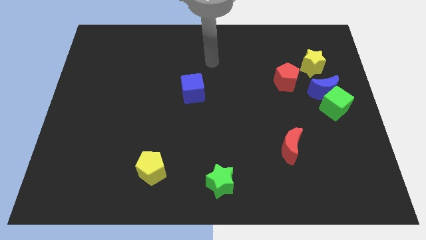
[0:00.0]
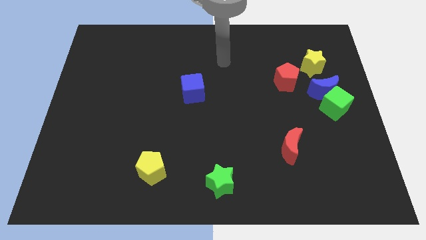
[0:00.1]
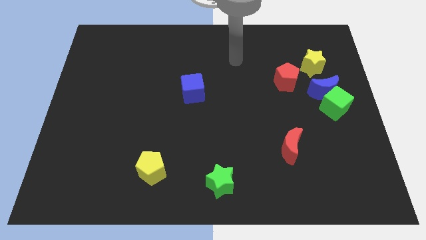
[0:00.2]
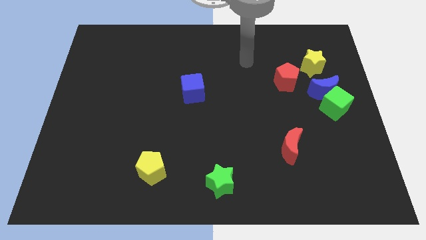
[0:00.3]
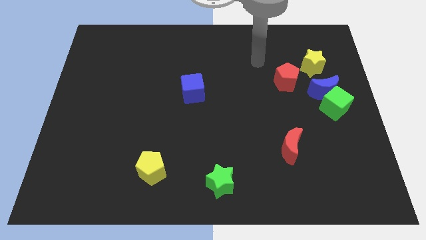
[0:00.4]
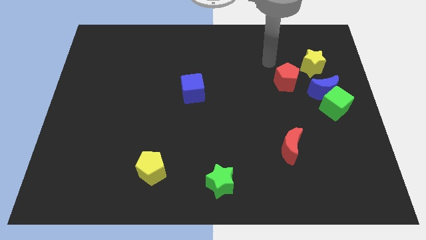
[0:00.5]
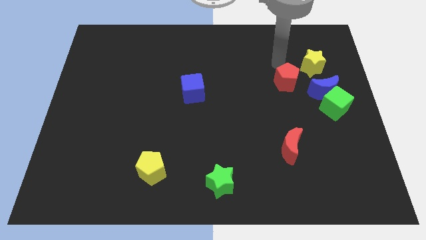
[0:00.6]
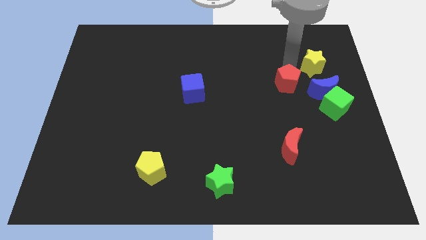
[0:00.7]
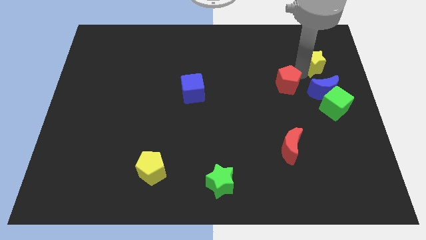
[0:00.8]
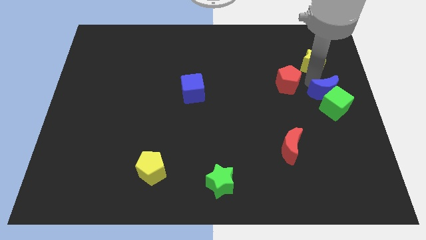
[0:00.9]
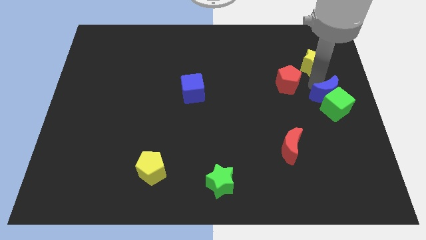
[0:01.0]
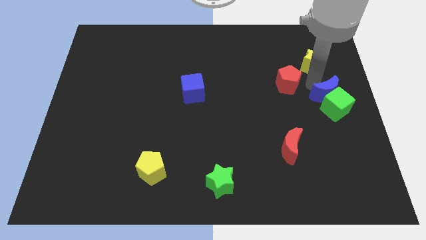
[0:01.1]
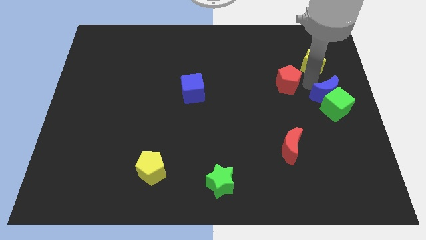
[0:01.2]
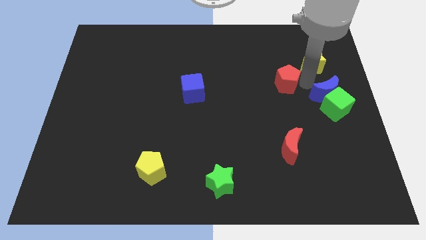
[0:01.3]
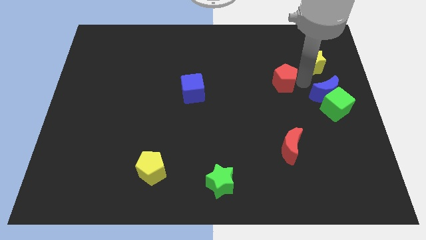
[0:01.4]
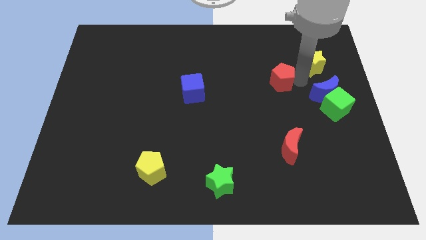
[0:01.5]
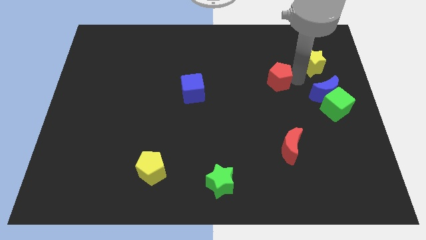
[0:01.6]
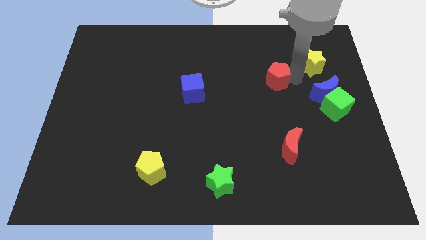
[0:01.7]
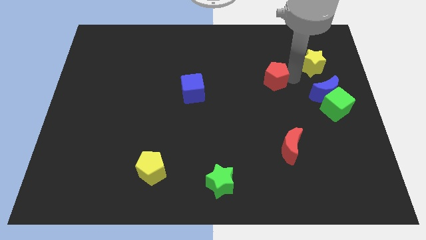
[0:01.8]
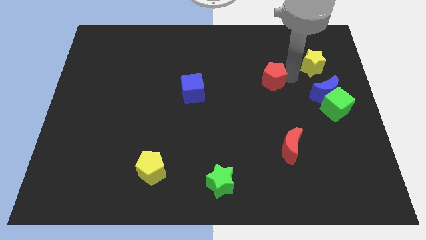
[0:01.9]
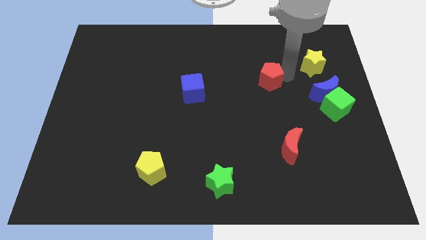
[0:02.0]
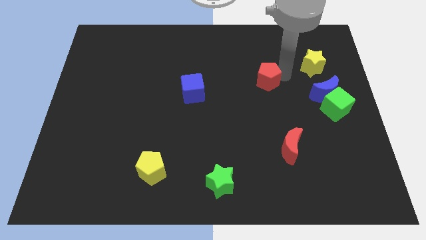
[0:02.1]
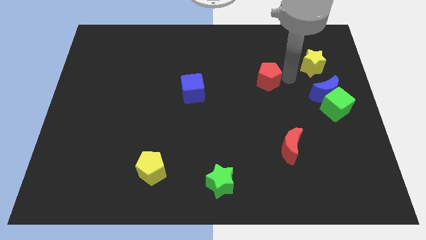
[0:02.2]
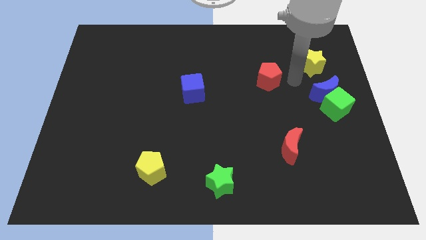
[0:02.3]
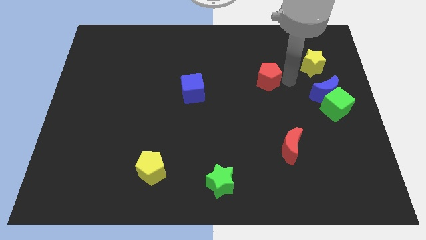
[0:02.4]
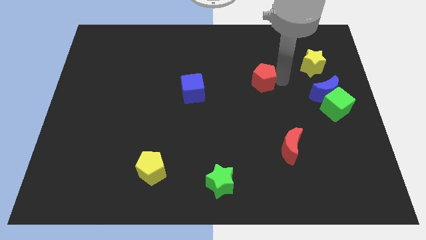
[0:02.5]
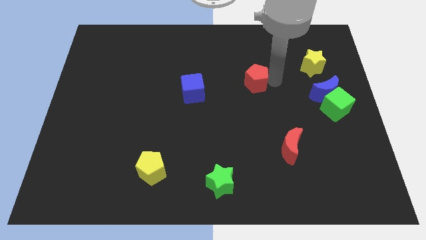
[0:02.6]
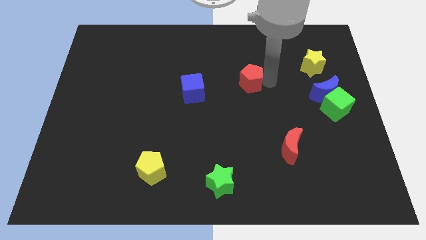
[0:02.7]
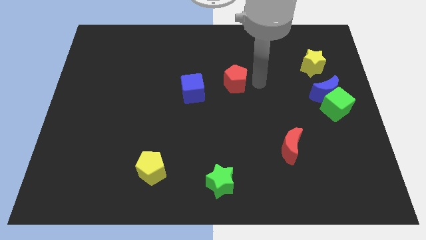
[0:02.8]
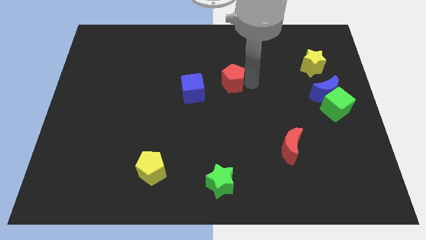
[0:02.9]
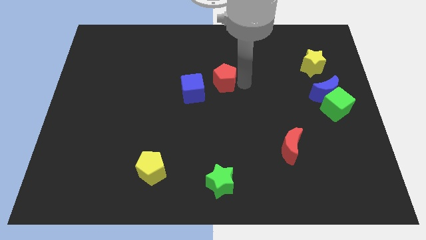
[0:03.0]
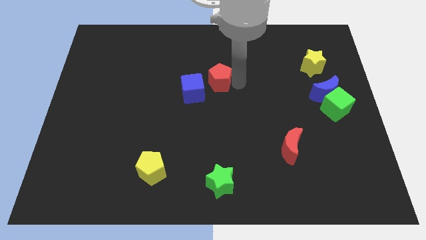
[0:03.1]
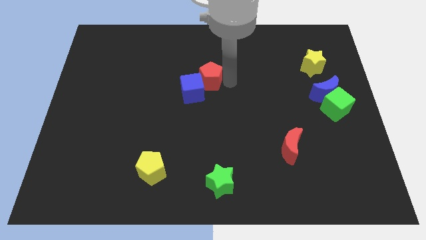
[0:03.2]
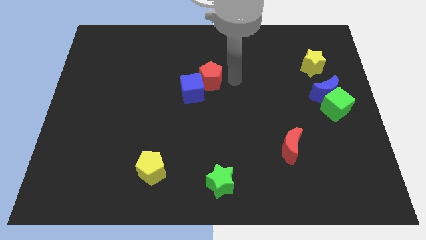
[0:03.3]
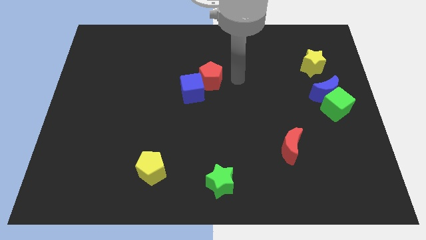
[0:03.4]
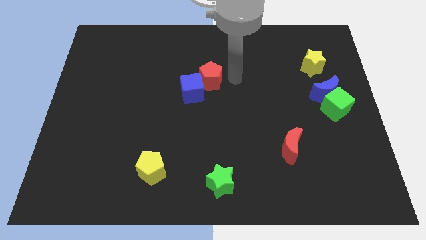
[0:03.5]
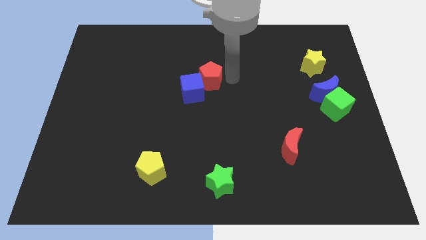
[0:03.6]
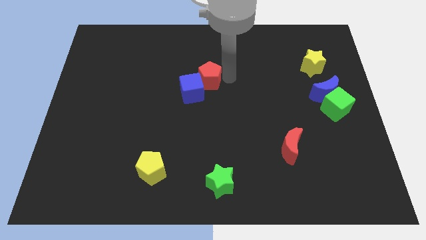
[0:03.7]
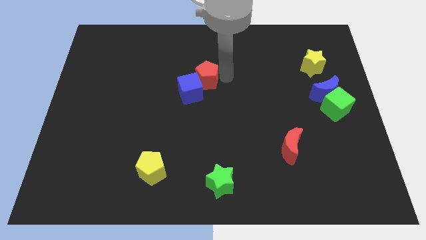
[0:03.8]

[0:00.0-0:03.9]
move the red pentagon left

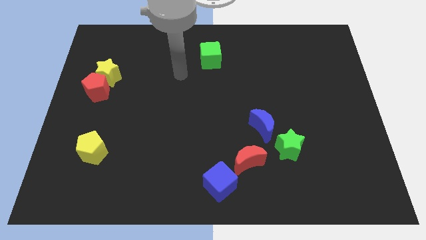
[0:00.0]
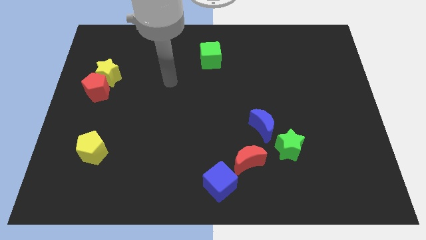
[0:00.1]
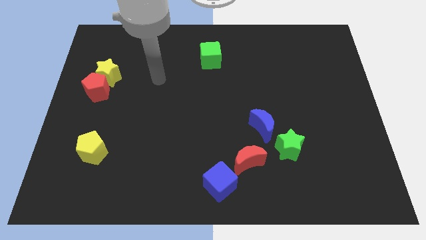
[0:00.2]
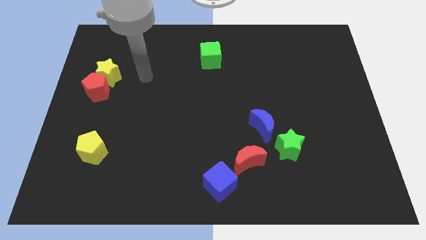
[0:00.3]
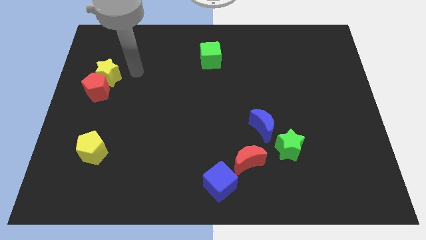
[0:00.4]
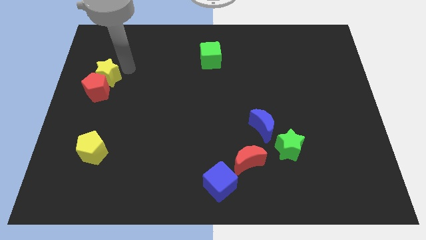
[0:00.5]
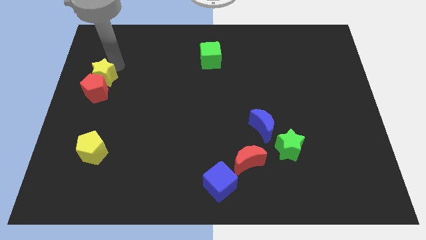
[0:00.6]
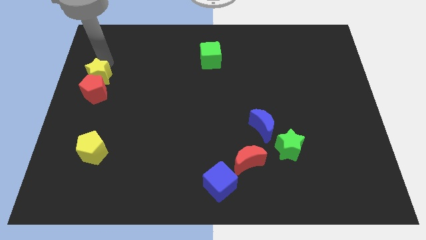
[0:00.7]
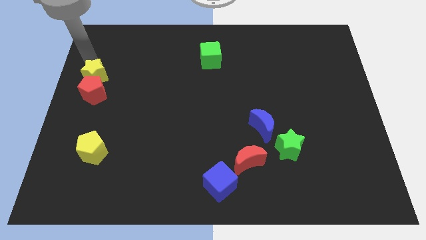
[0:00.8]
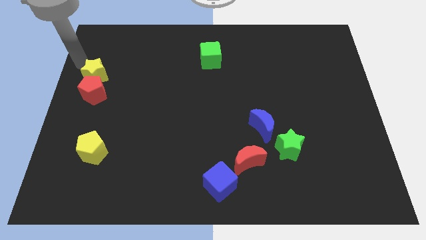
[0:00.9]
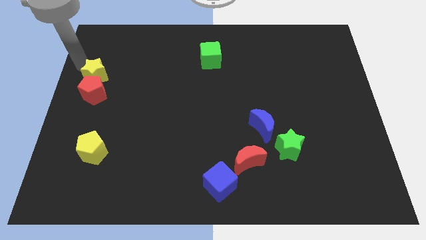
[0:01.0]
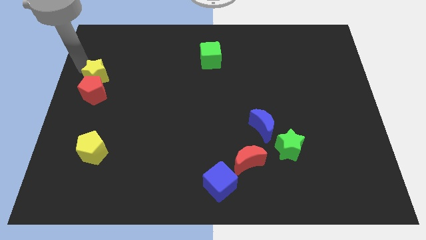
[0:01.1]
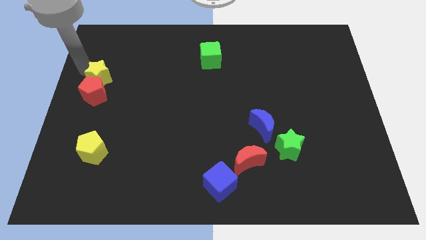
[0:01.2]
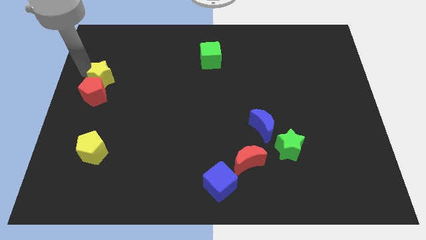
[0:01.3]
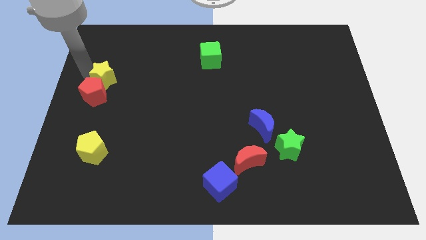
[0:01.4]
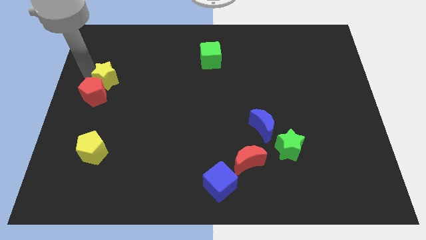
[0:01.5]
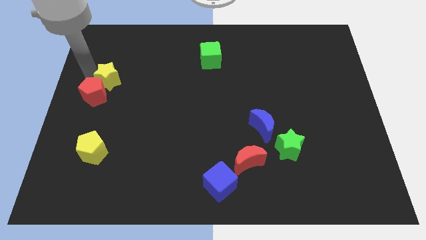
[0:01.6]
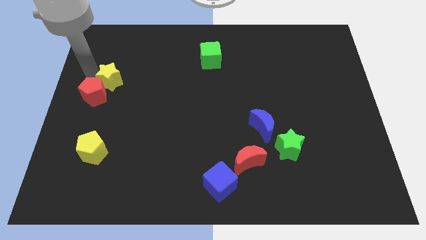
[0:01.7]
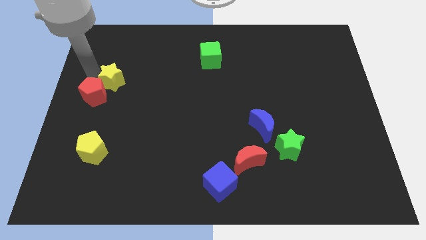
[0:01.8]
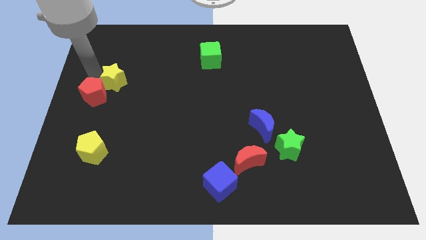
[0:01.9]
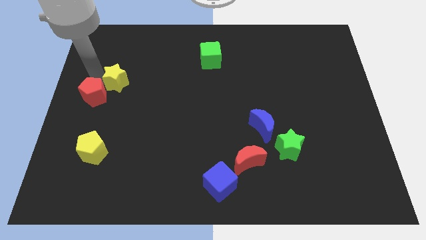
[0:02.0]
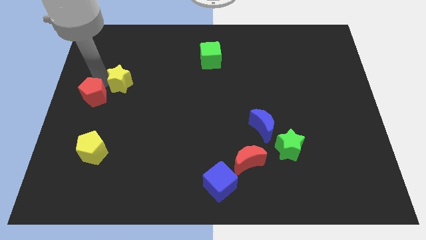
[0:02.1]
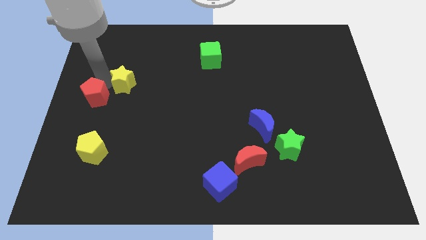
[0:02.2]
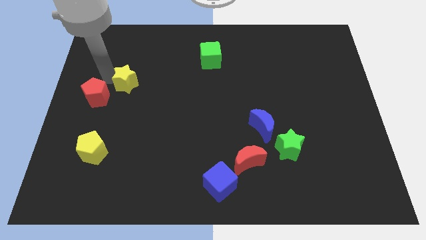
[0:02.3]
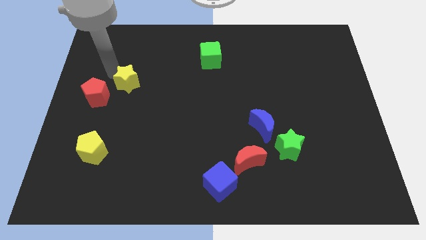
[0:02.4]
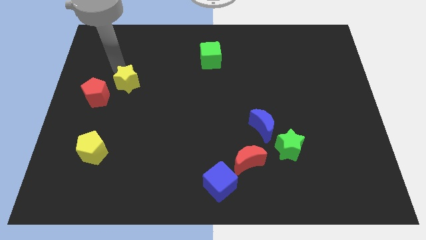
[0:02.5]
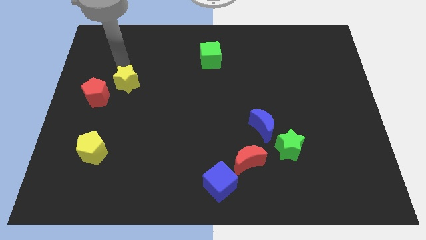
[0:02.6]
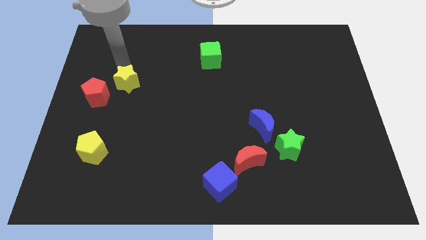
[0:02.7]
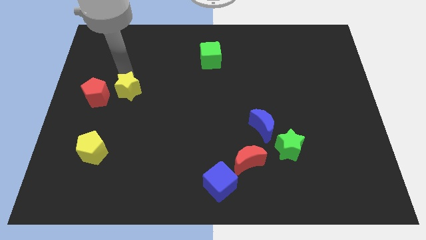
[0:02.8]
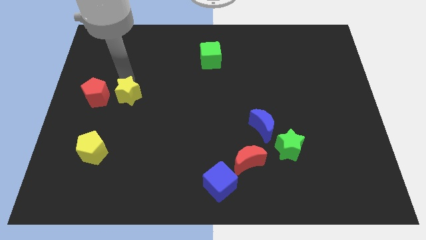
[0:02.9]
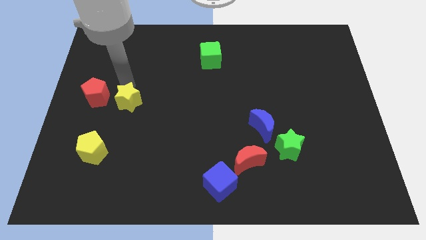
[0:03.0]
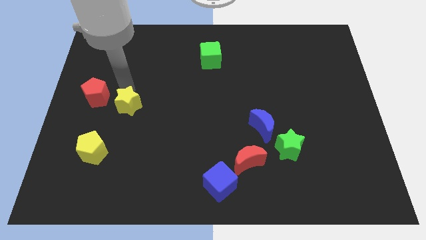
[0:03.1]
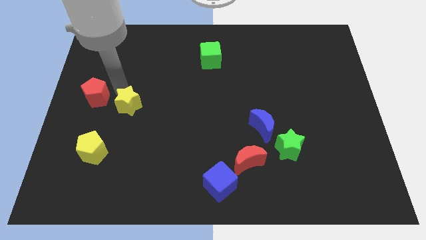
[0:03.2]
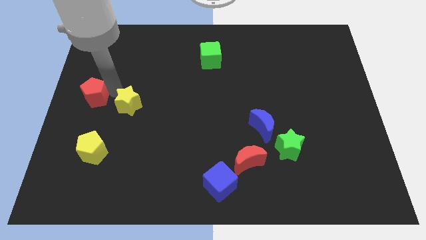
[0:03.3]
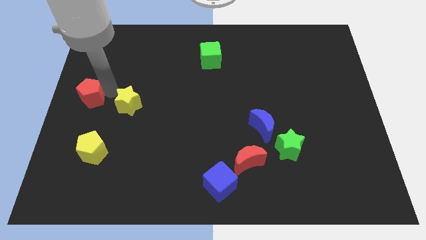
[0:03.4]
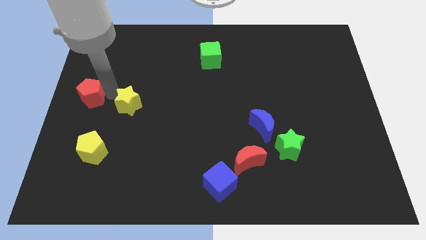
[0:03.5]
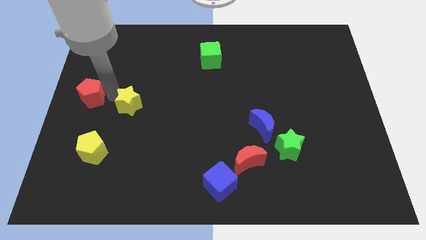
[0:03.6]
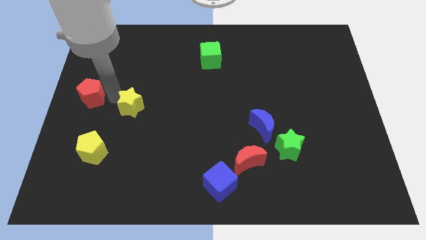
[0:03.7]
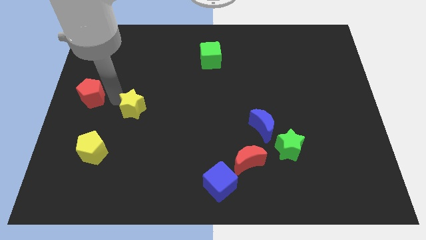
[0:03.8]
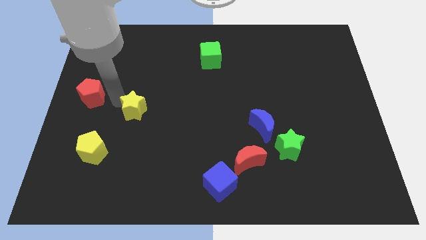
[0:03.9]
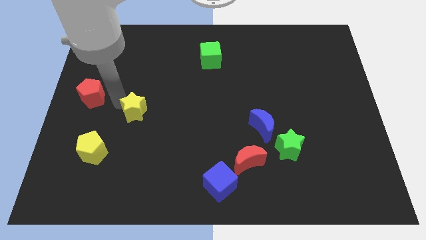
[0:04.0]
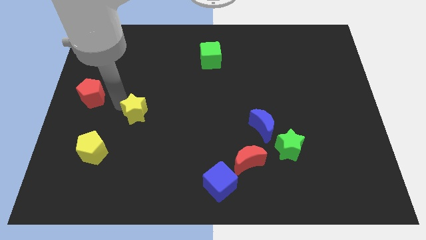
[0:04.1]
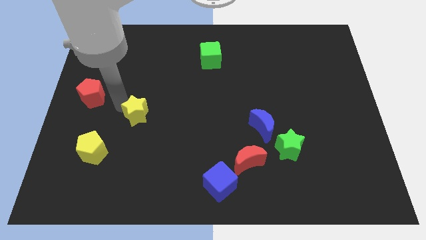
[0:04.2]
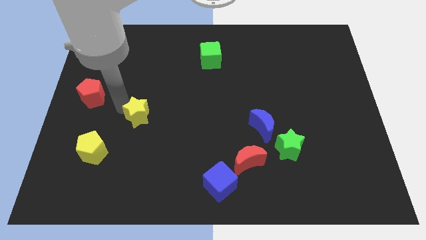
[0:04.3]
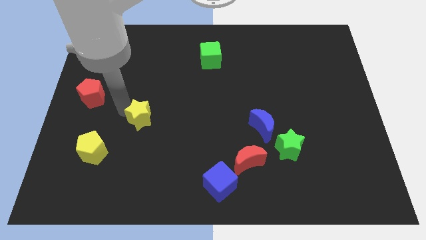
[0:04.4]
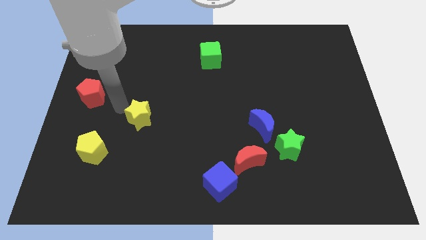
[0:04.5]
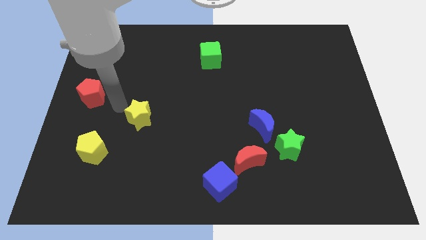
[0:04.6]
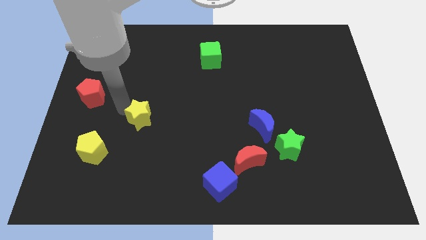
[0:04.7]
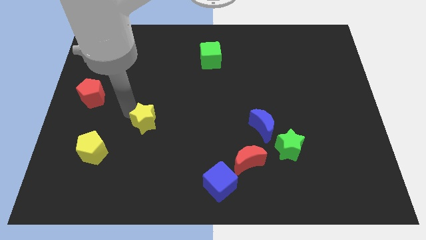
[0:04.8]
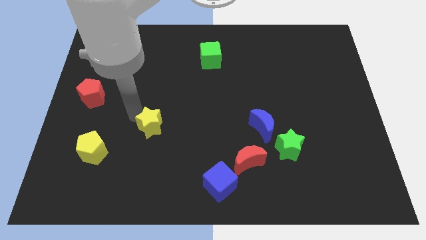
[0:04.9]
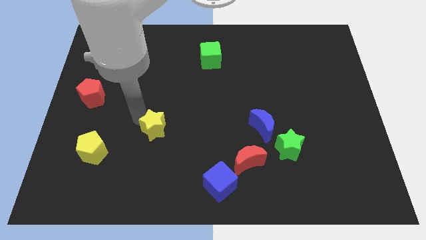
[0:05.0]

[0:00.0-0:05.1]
push the yellow star down and to the right
